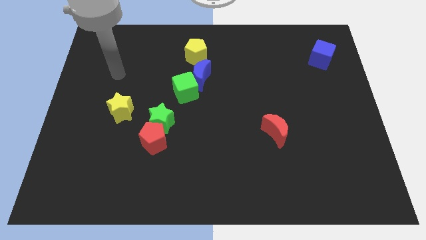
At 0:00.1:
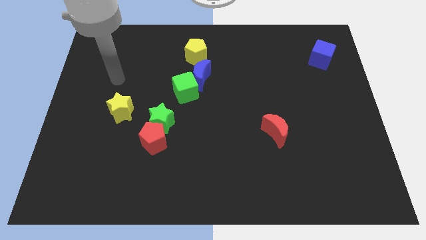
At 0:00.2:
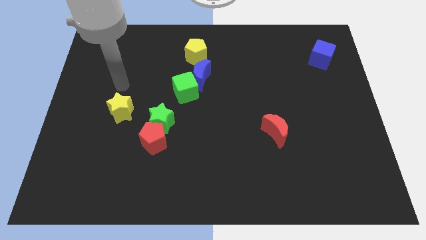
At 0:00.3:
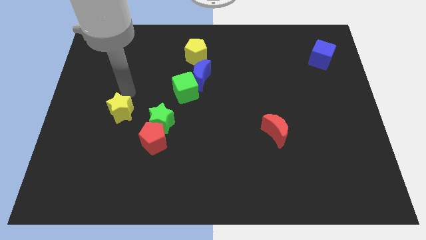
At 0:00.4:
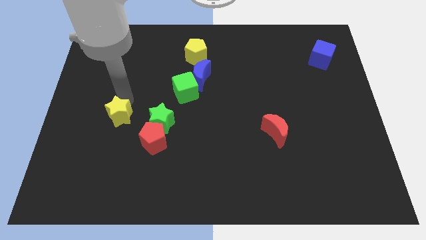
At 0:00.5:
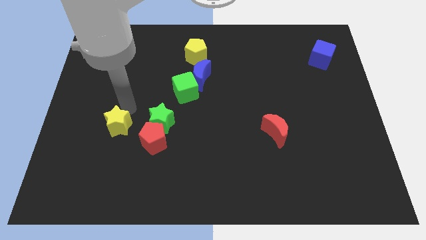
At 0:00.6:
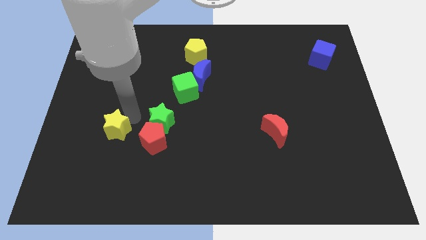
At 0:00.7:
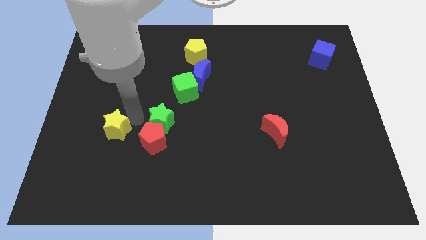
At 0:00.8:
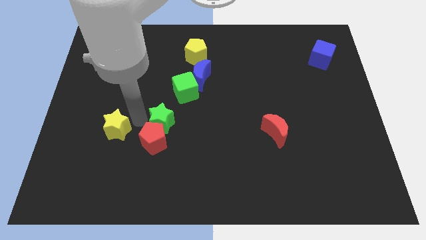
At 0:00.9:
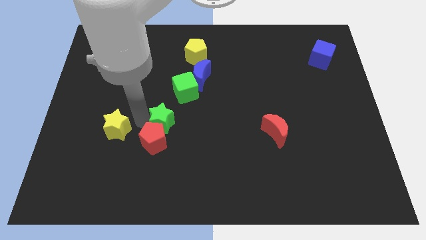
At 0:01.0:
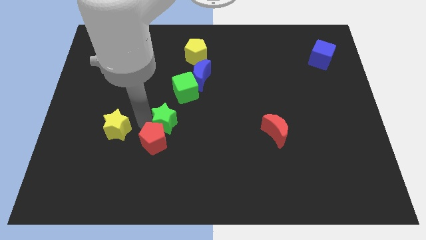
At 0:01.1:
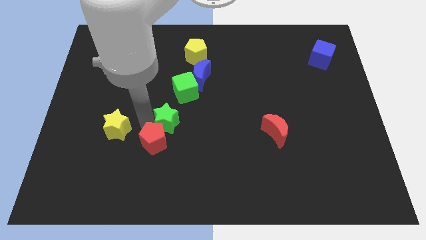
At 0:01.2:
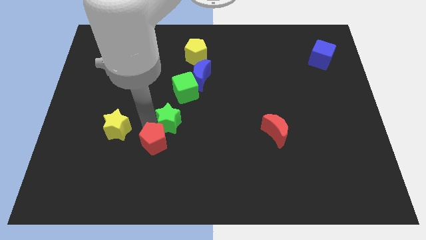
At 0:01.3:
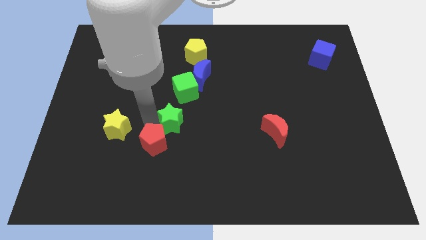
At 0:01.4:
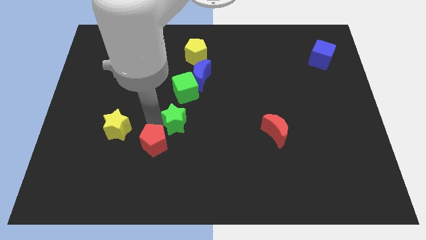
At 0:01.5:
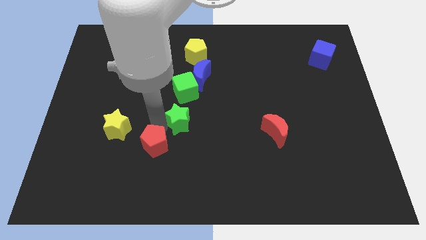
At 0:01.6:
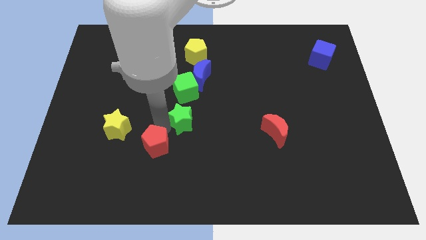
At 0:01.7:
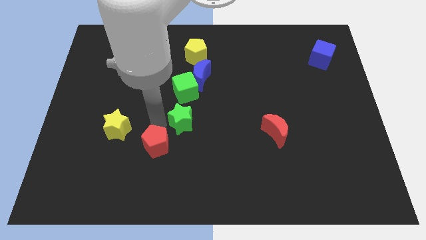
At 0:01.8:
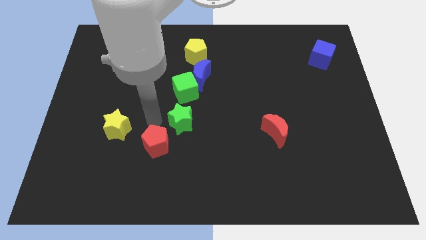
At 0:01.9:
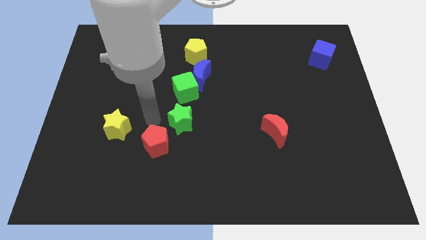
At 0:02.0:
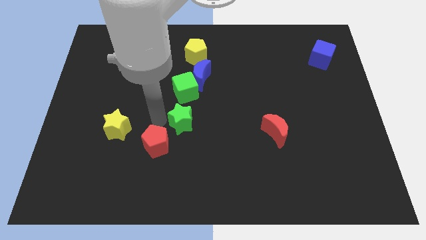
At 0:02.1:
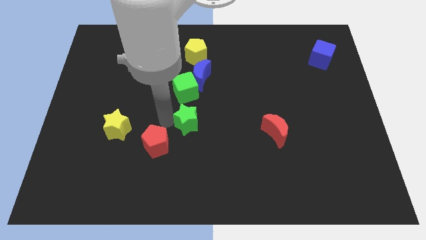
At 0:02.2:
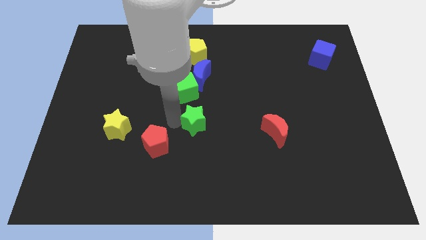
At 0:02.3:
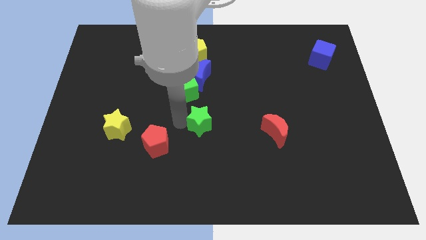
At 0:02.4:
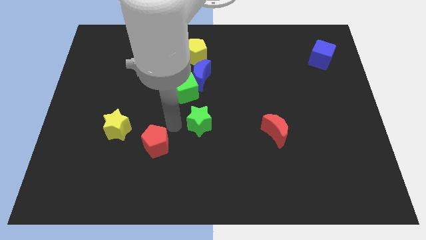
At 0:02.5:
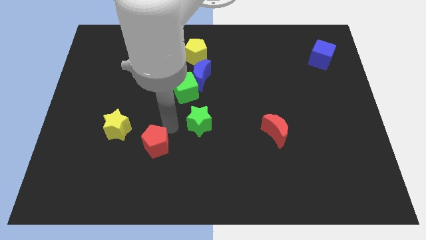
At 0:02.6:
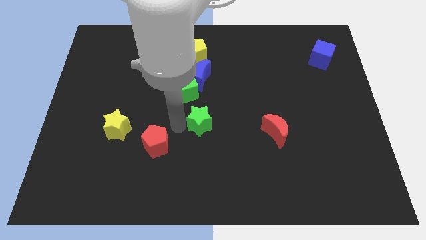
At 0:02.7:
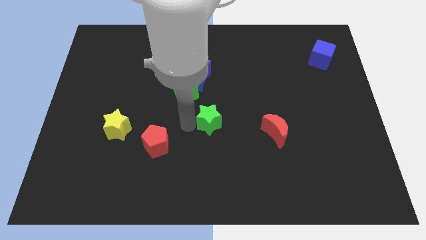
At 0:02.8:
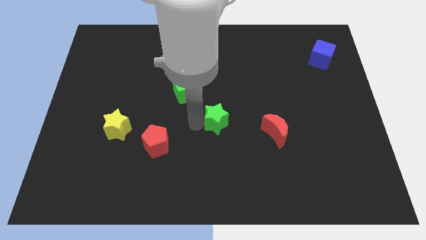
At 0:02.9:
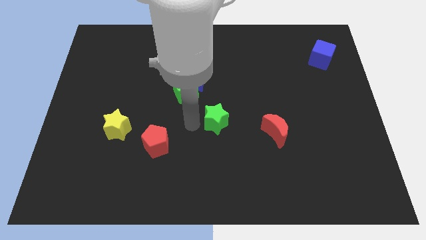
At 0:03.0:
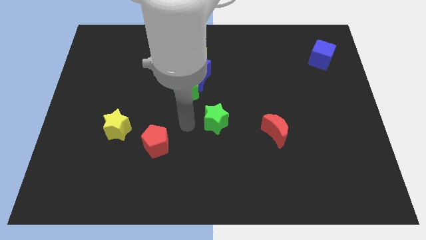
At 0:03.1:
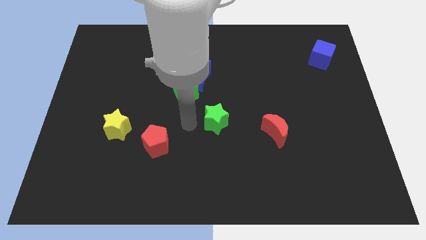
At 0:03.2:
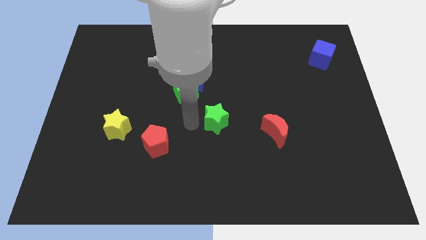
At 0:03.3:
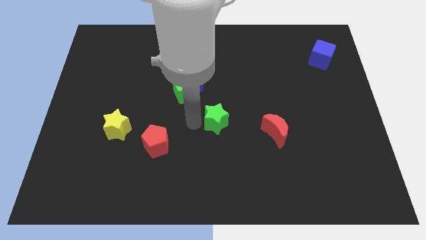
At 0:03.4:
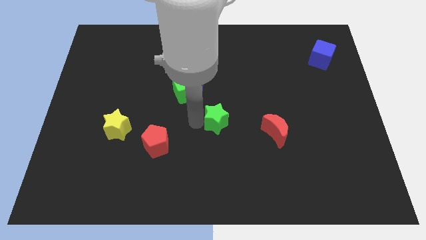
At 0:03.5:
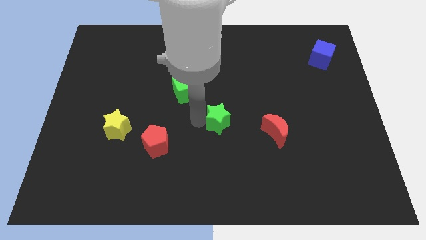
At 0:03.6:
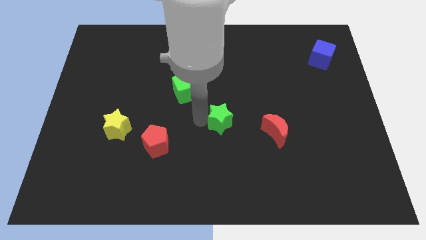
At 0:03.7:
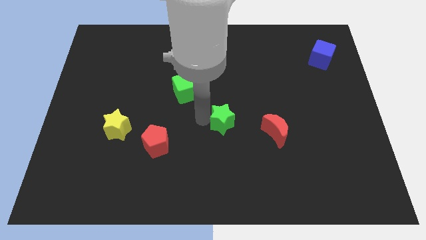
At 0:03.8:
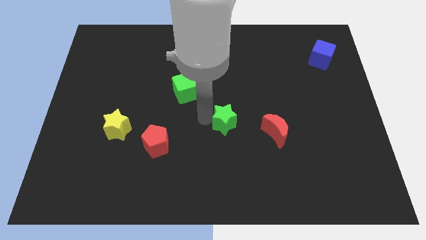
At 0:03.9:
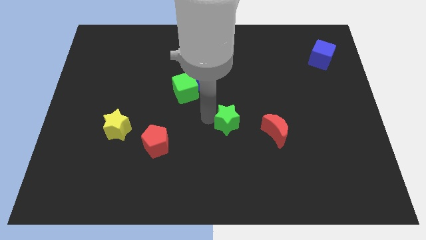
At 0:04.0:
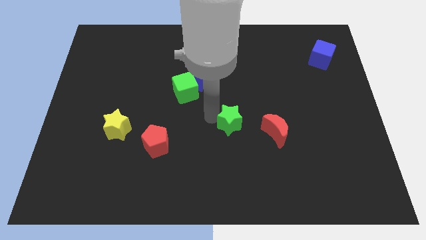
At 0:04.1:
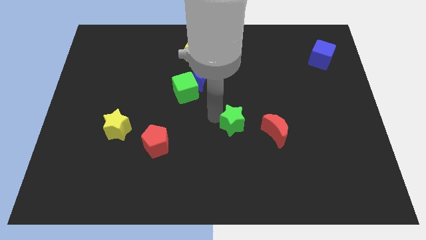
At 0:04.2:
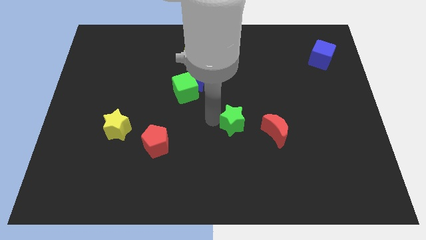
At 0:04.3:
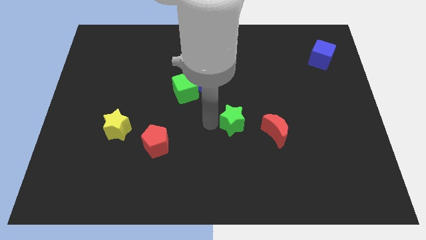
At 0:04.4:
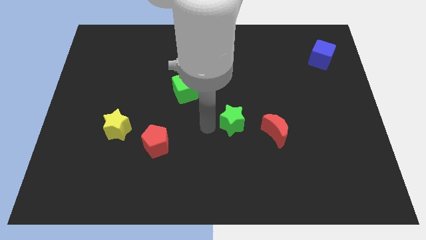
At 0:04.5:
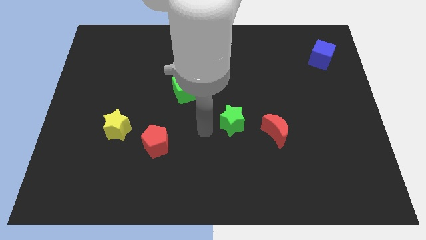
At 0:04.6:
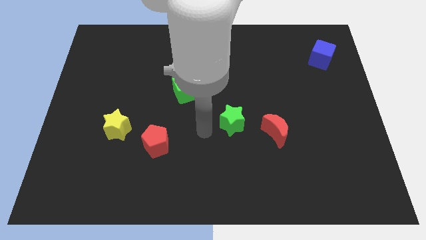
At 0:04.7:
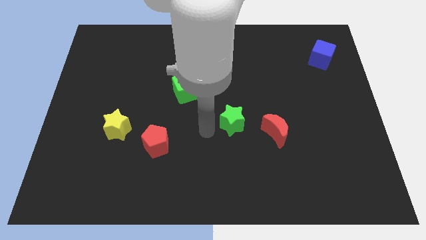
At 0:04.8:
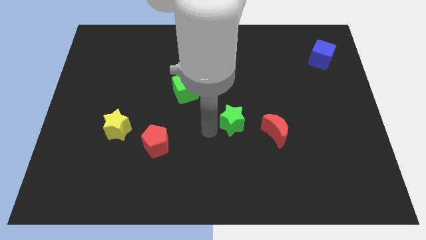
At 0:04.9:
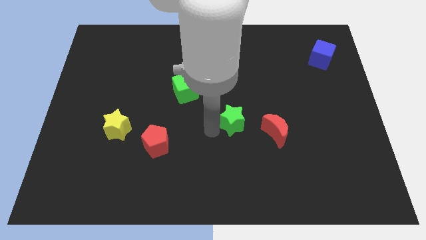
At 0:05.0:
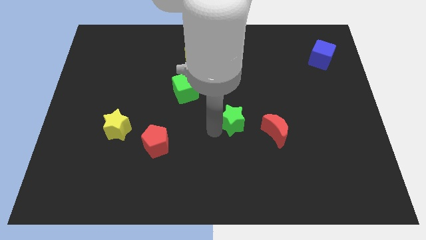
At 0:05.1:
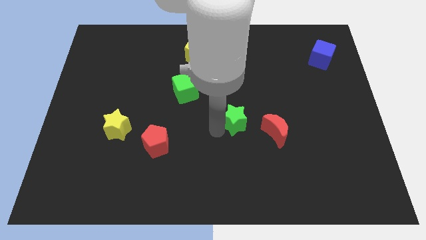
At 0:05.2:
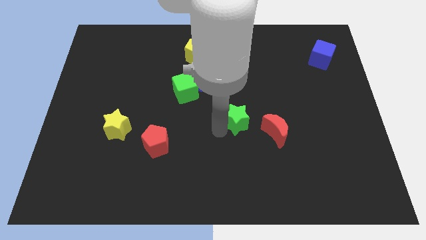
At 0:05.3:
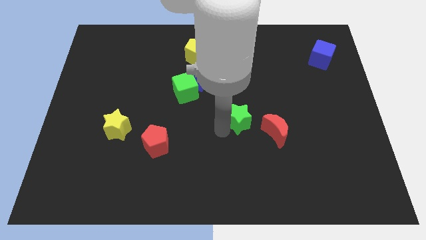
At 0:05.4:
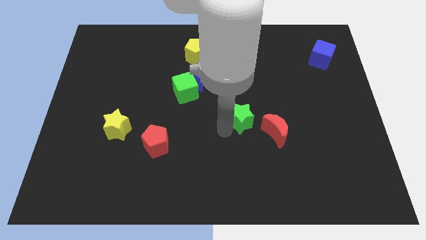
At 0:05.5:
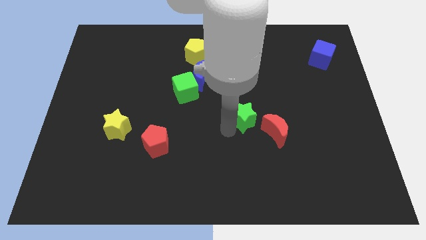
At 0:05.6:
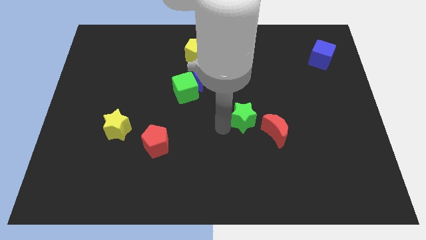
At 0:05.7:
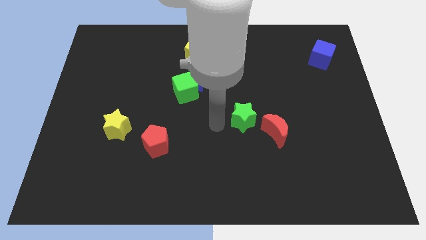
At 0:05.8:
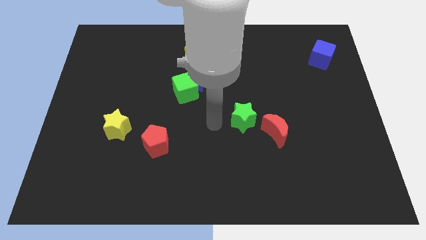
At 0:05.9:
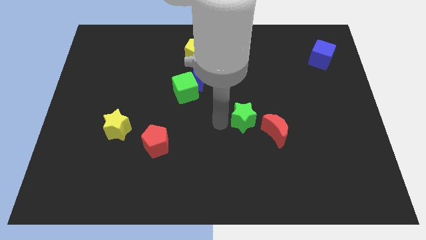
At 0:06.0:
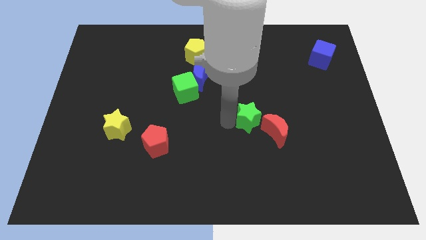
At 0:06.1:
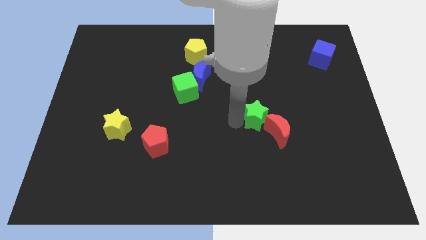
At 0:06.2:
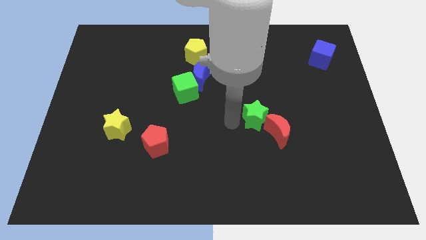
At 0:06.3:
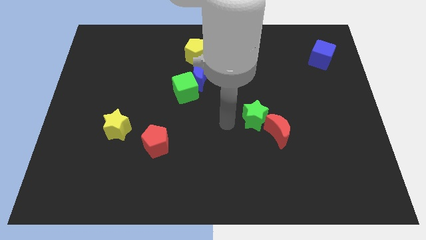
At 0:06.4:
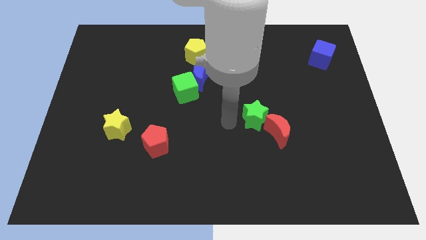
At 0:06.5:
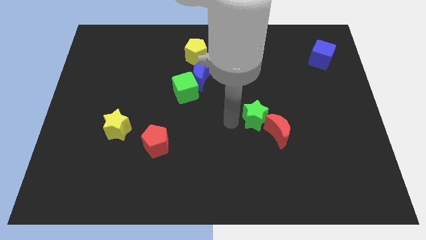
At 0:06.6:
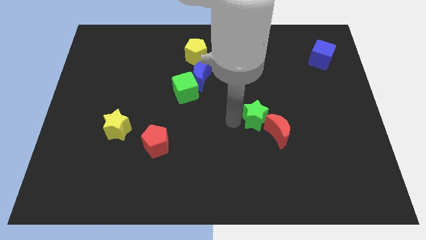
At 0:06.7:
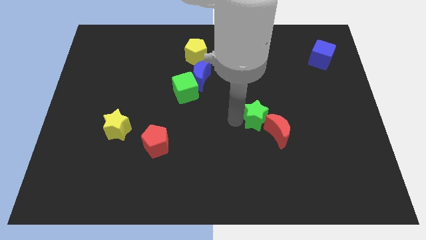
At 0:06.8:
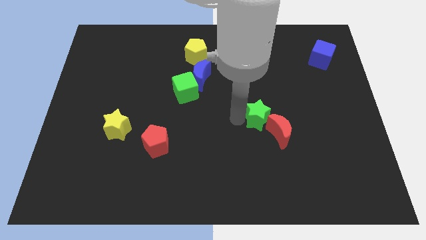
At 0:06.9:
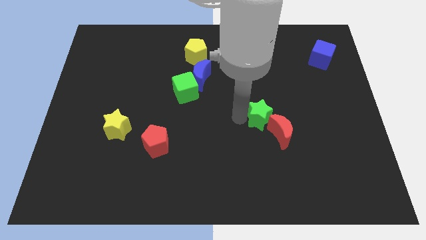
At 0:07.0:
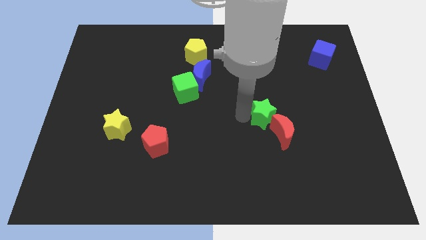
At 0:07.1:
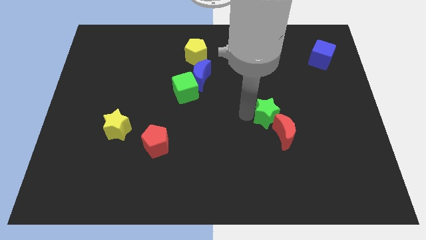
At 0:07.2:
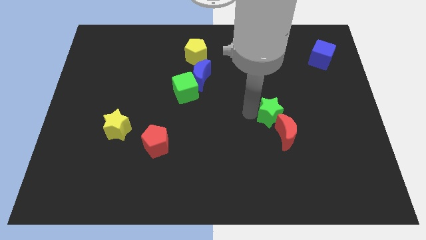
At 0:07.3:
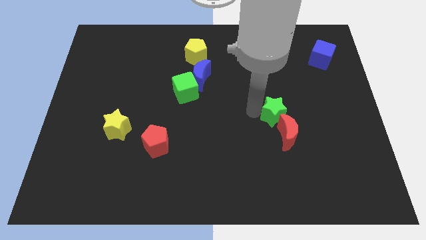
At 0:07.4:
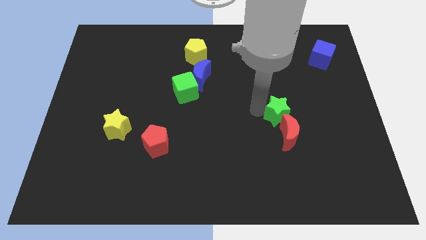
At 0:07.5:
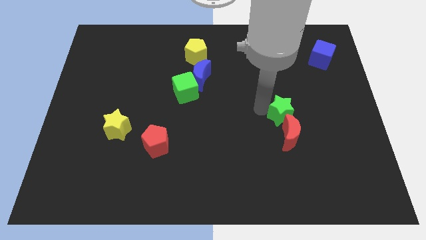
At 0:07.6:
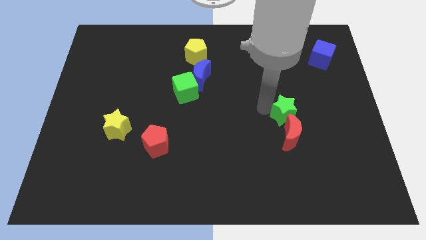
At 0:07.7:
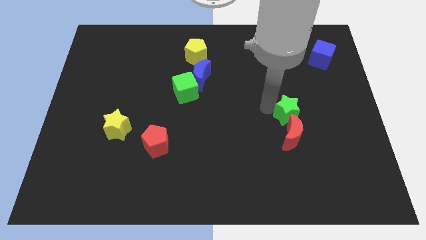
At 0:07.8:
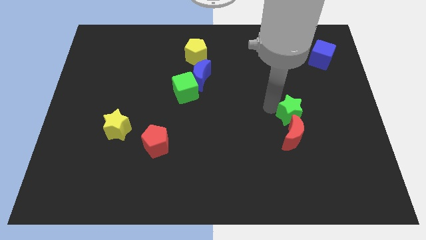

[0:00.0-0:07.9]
move the green star to the top right of the red moon
